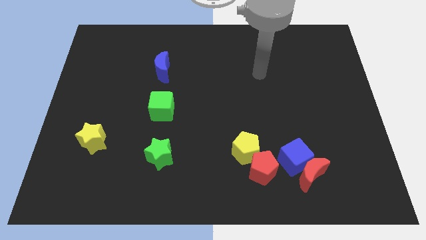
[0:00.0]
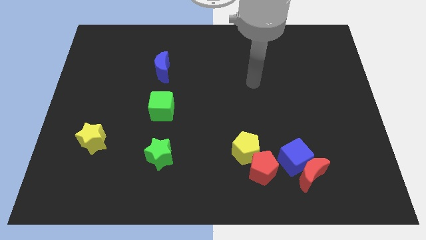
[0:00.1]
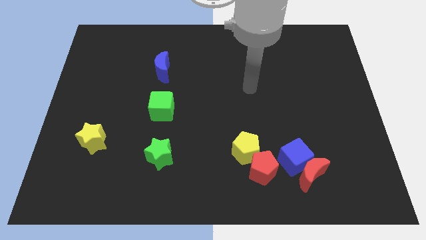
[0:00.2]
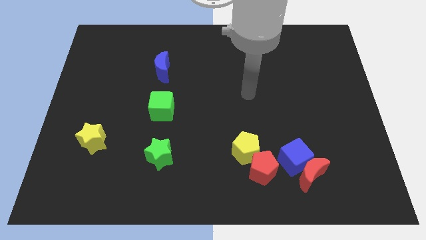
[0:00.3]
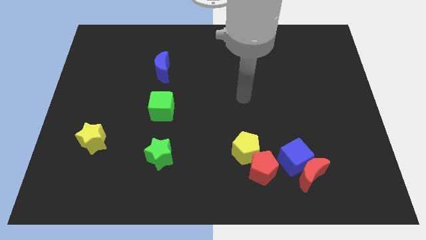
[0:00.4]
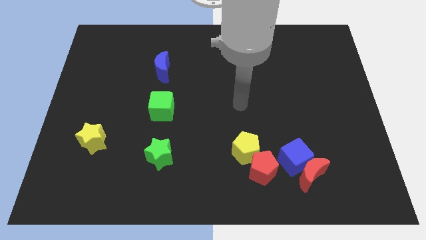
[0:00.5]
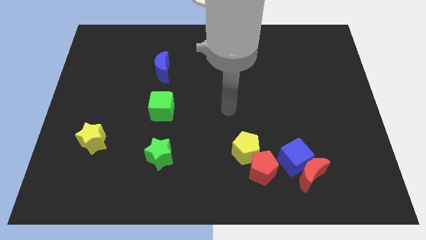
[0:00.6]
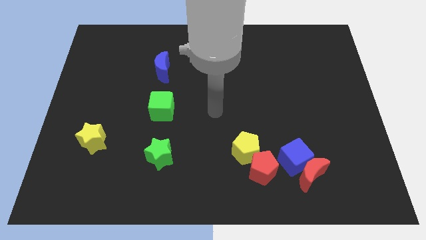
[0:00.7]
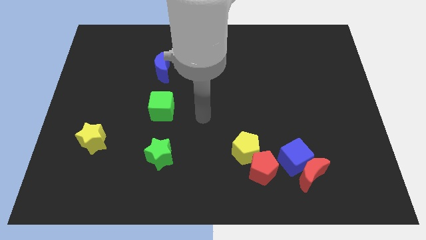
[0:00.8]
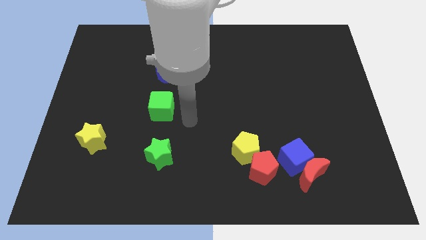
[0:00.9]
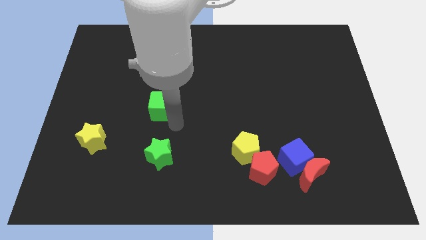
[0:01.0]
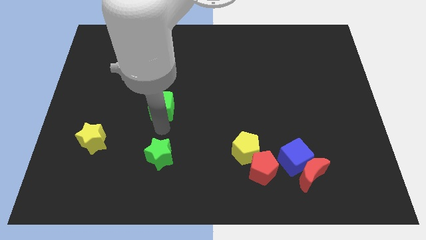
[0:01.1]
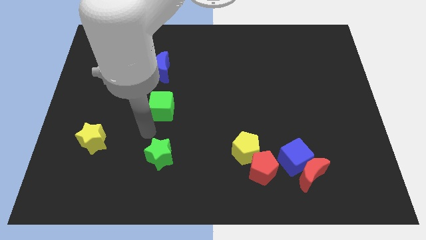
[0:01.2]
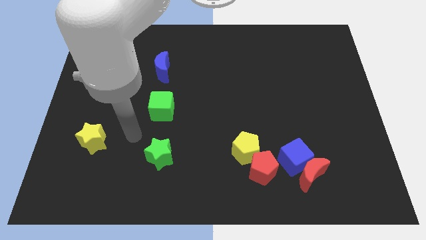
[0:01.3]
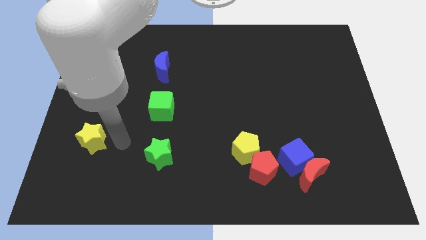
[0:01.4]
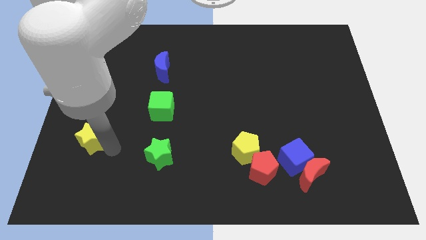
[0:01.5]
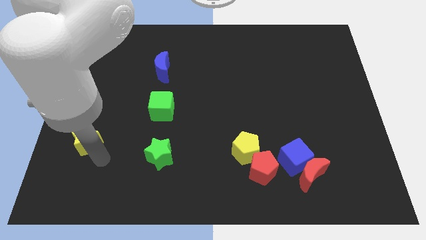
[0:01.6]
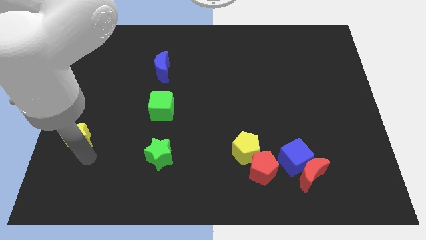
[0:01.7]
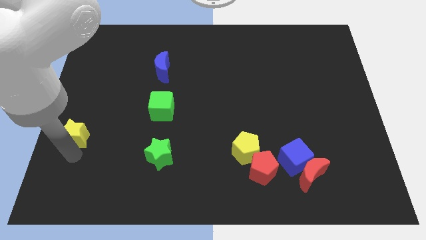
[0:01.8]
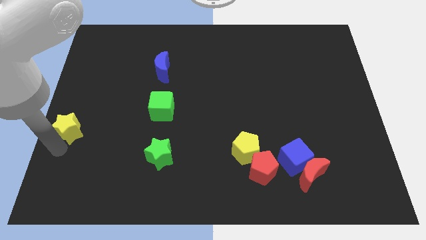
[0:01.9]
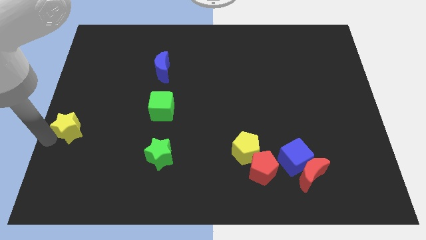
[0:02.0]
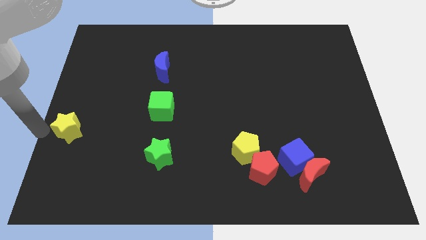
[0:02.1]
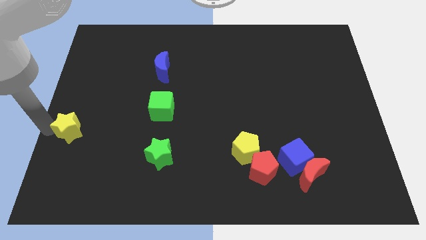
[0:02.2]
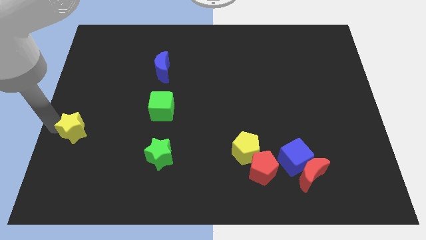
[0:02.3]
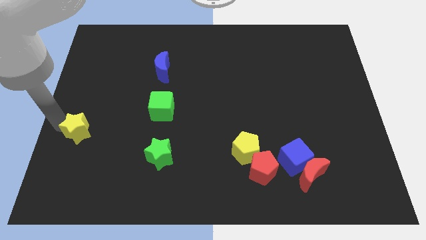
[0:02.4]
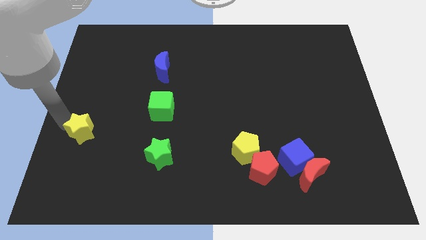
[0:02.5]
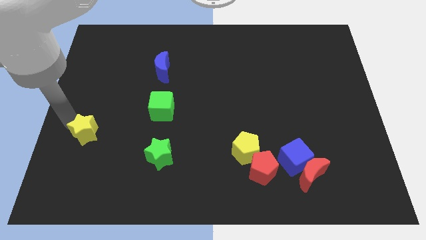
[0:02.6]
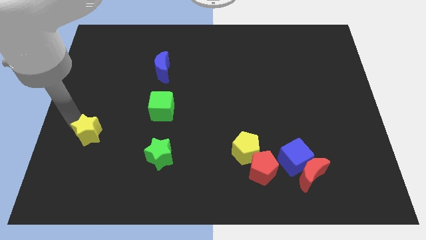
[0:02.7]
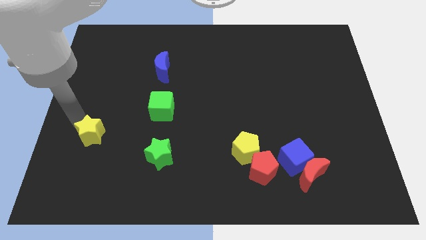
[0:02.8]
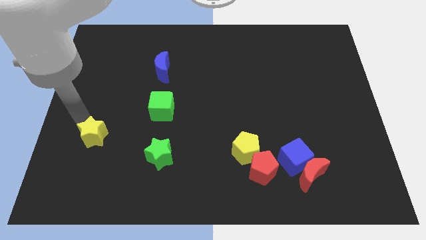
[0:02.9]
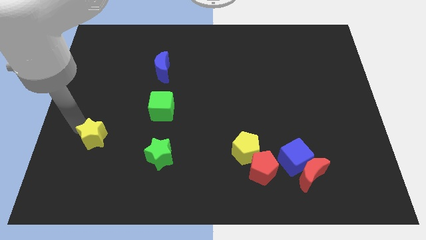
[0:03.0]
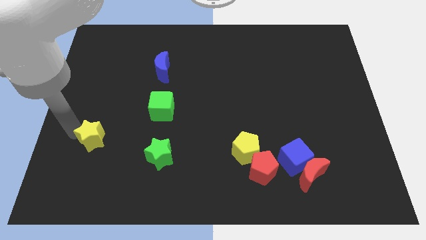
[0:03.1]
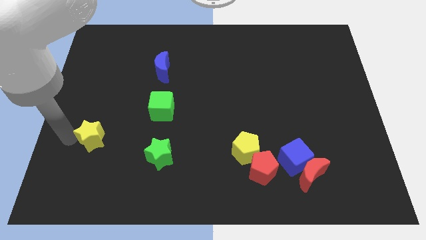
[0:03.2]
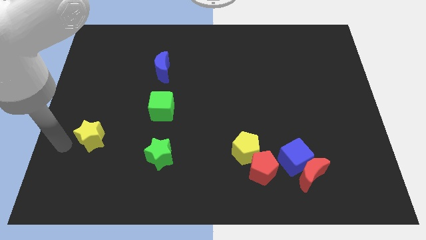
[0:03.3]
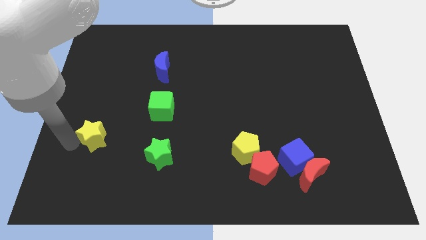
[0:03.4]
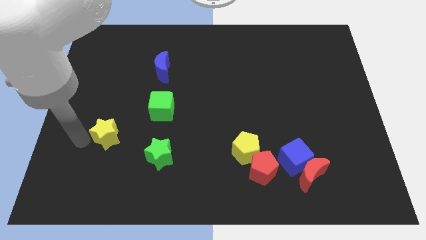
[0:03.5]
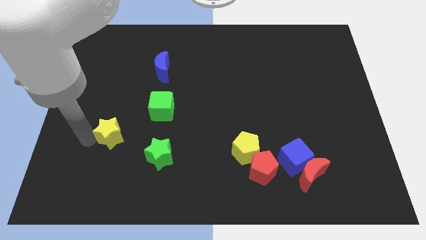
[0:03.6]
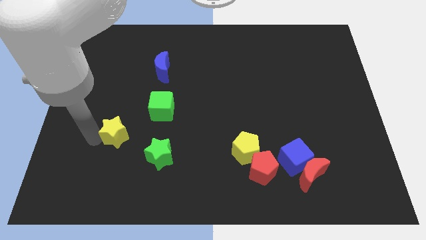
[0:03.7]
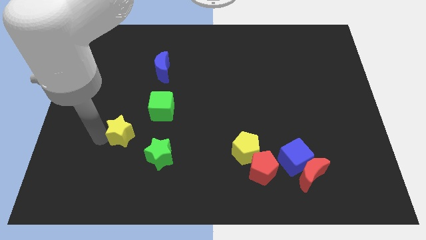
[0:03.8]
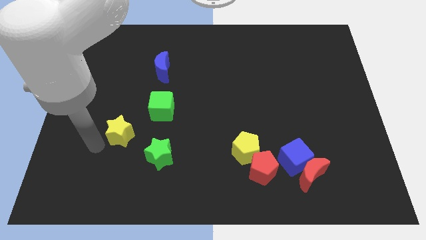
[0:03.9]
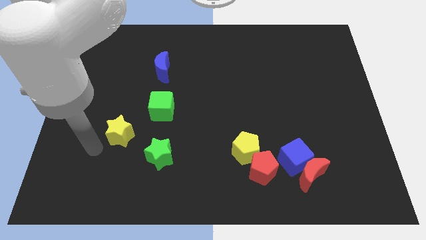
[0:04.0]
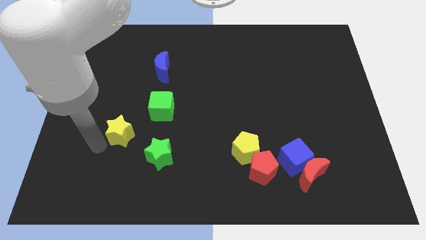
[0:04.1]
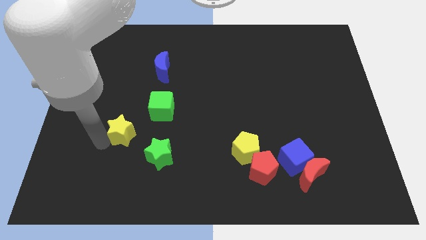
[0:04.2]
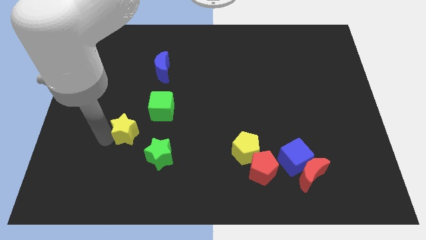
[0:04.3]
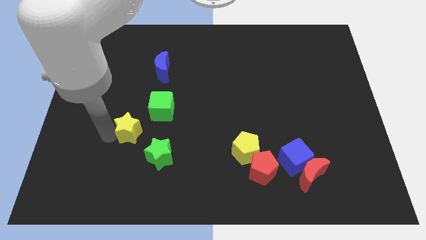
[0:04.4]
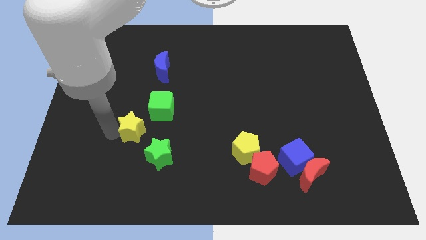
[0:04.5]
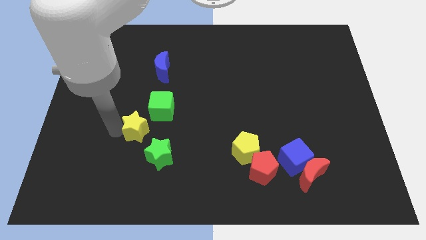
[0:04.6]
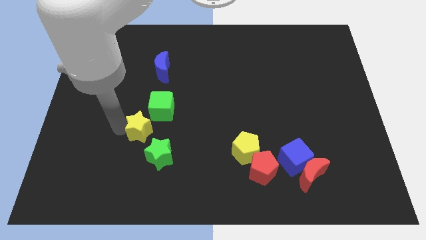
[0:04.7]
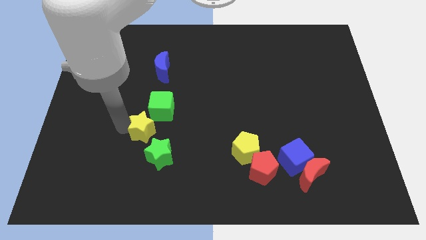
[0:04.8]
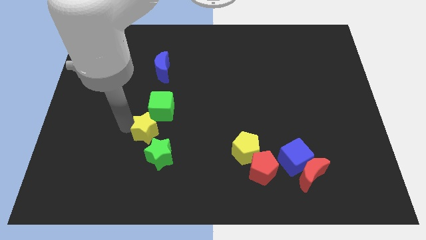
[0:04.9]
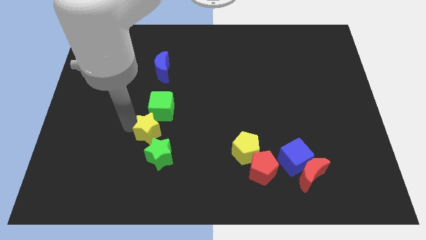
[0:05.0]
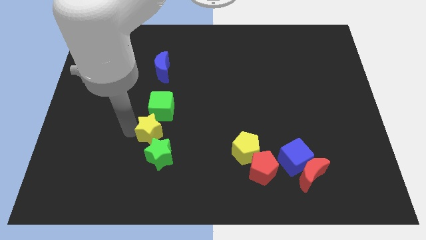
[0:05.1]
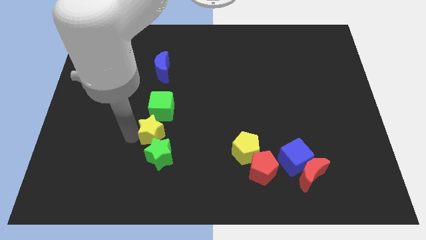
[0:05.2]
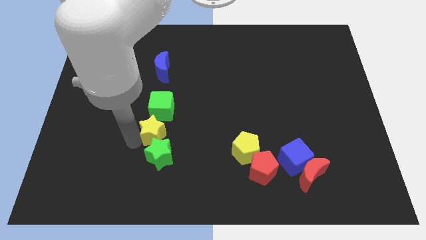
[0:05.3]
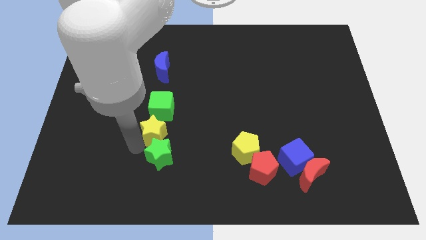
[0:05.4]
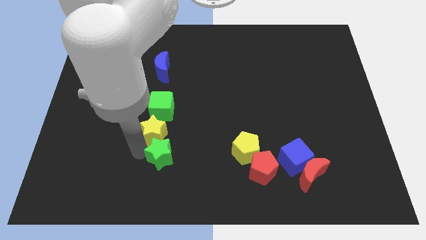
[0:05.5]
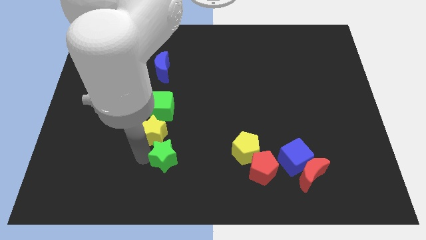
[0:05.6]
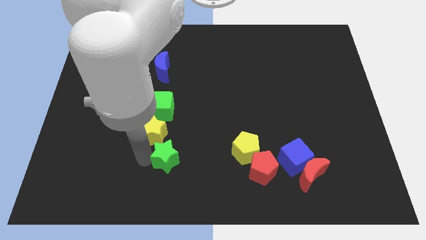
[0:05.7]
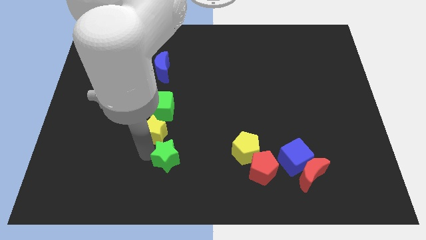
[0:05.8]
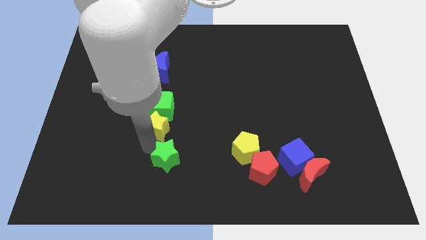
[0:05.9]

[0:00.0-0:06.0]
push the yellow star to the green cube

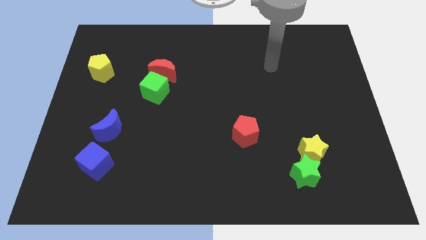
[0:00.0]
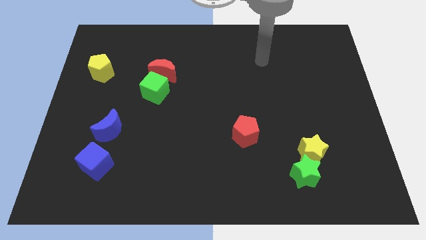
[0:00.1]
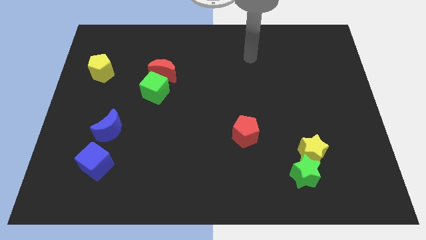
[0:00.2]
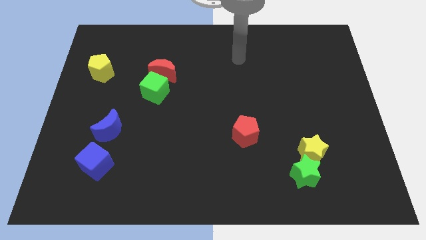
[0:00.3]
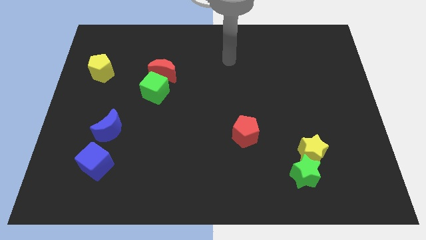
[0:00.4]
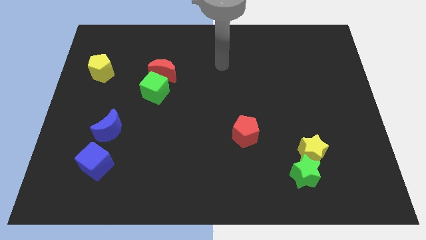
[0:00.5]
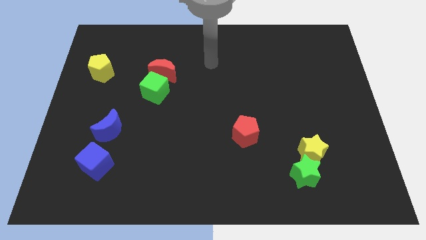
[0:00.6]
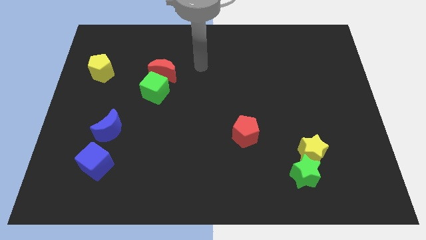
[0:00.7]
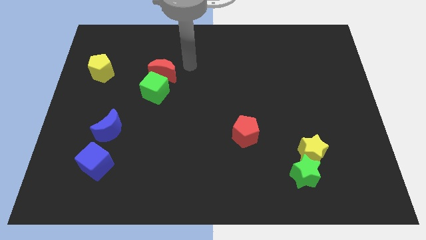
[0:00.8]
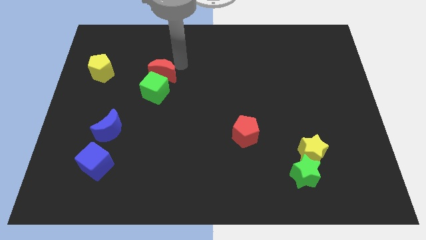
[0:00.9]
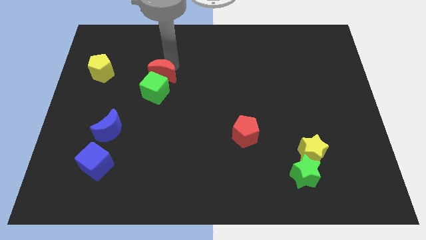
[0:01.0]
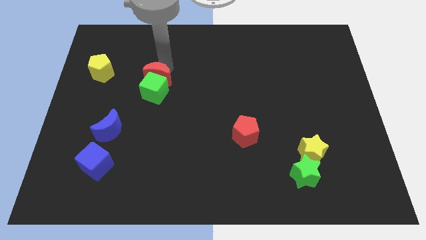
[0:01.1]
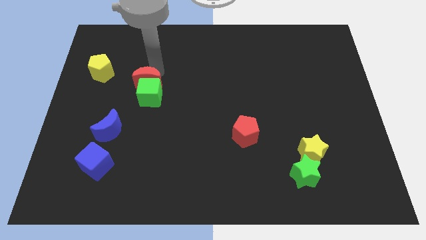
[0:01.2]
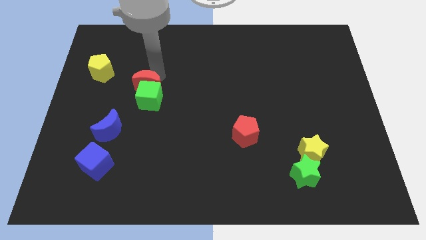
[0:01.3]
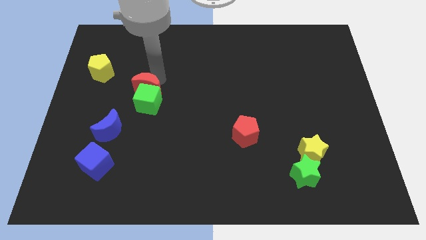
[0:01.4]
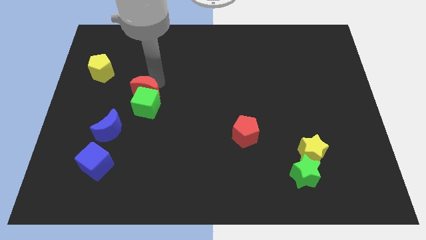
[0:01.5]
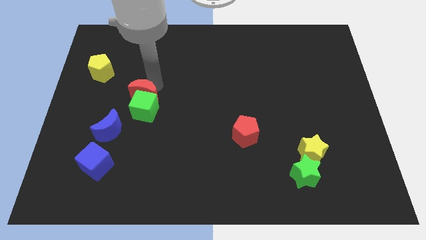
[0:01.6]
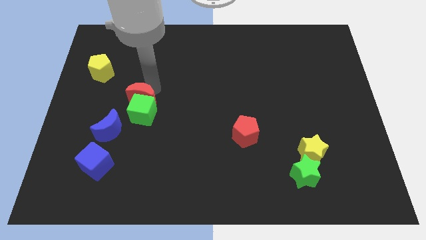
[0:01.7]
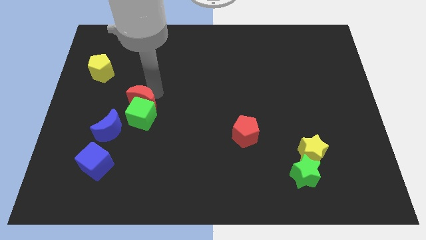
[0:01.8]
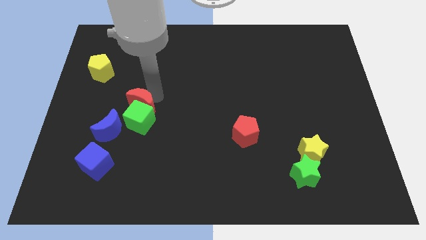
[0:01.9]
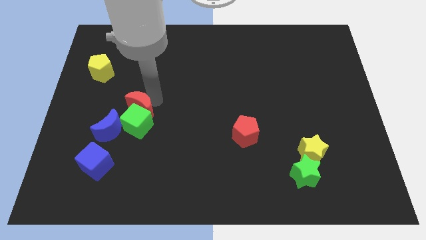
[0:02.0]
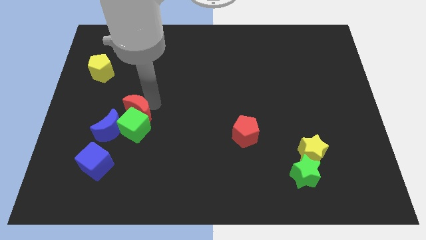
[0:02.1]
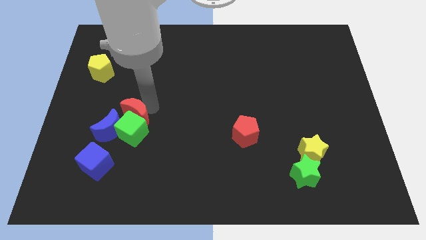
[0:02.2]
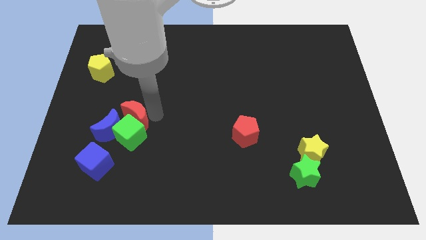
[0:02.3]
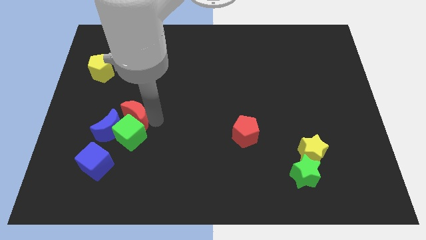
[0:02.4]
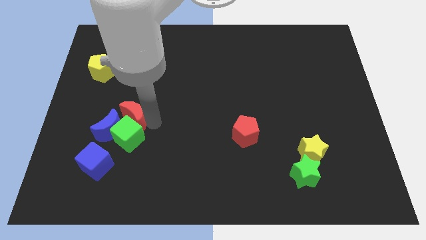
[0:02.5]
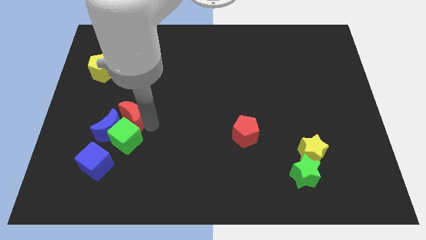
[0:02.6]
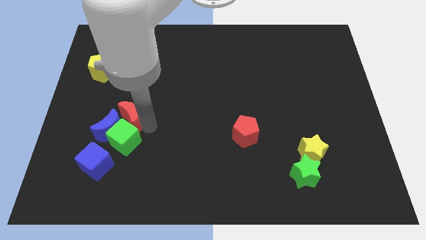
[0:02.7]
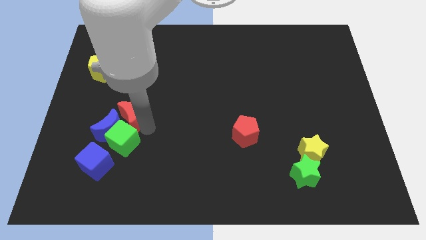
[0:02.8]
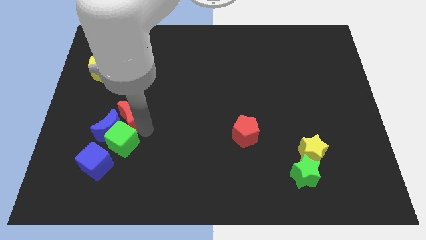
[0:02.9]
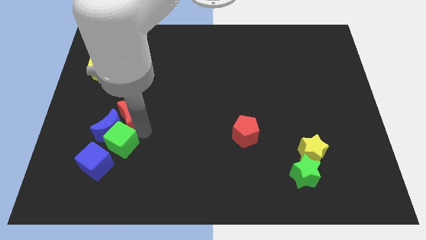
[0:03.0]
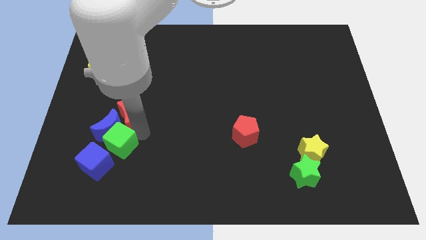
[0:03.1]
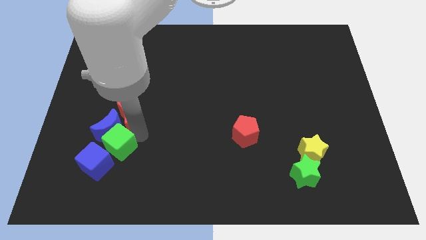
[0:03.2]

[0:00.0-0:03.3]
push the green cube towards the blue cube
